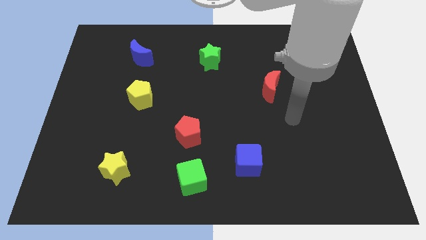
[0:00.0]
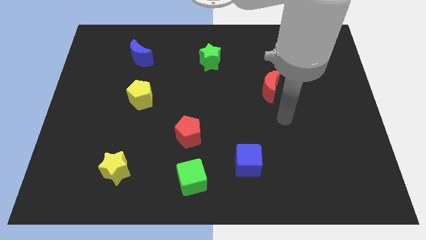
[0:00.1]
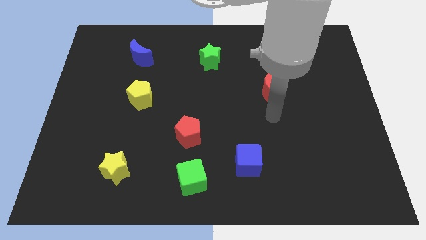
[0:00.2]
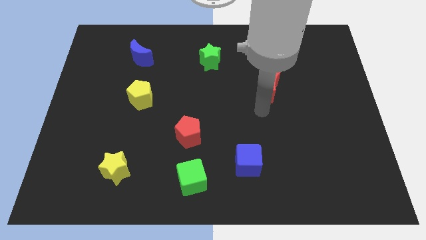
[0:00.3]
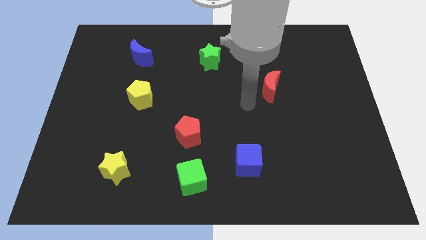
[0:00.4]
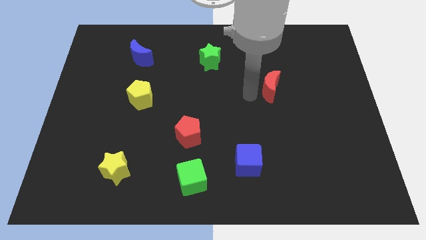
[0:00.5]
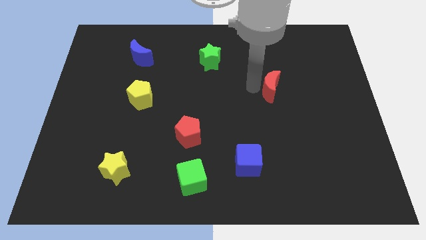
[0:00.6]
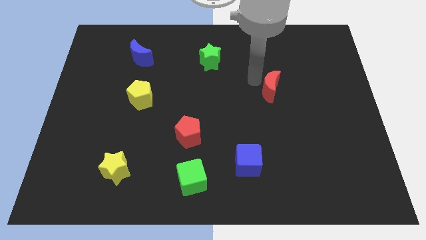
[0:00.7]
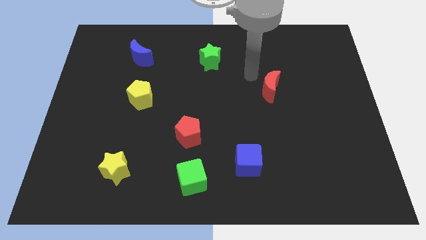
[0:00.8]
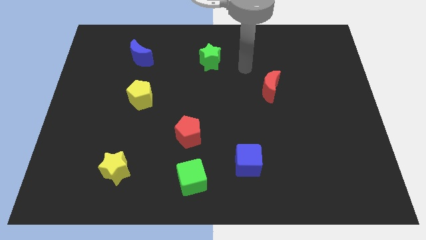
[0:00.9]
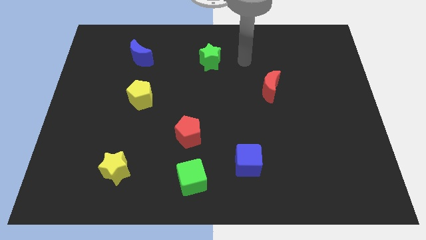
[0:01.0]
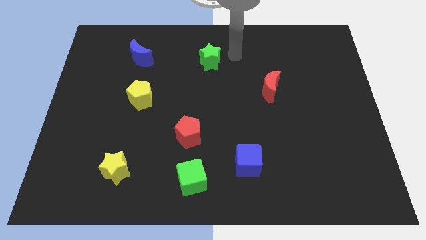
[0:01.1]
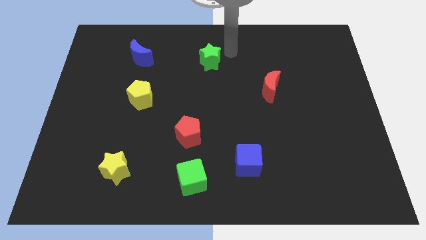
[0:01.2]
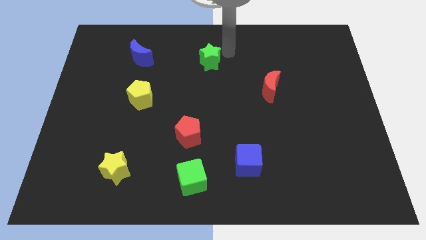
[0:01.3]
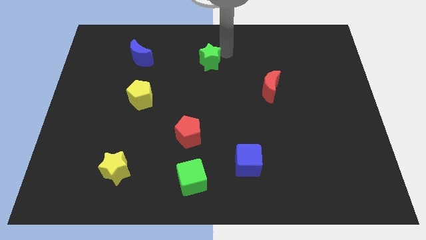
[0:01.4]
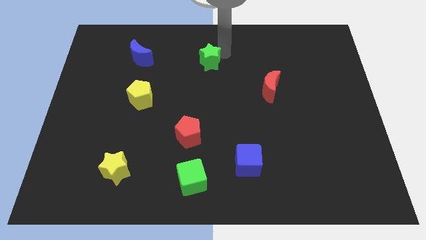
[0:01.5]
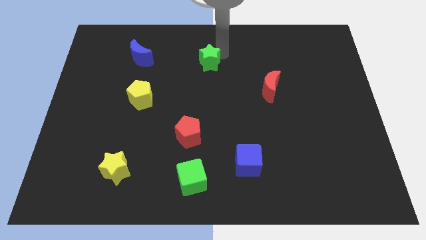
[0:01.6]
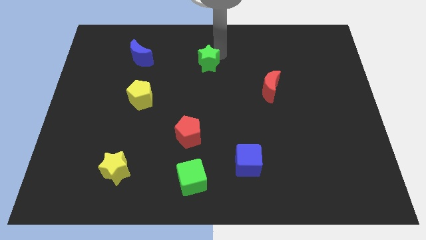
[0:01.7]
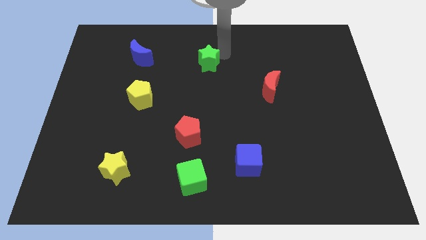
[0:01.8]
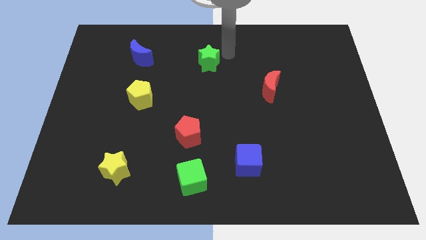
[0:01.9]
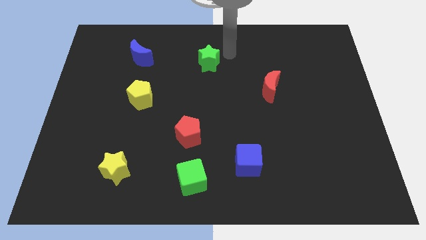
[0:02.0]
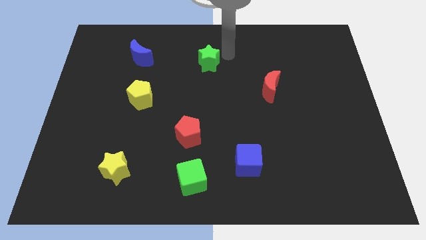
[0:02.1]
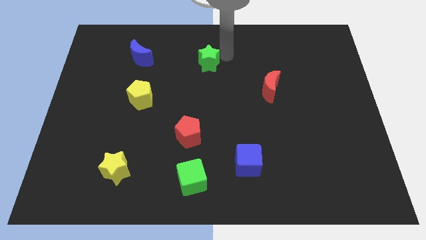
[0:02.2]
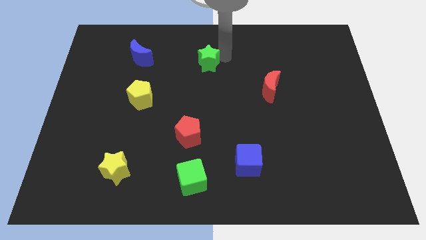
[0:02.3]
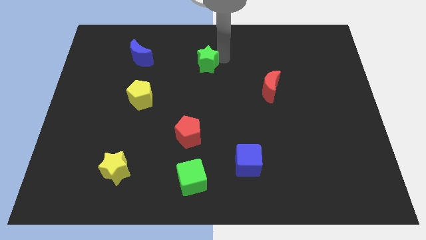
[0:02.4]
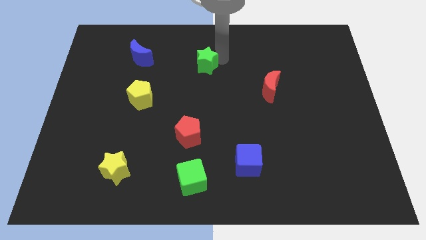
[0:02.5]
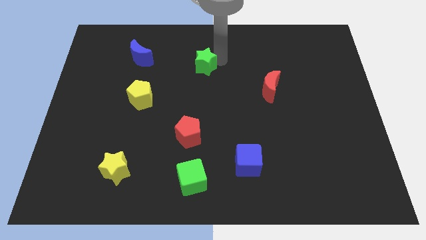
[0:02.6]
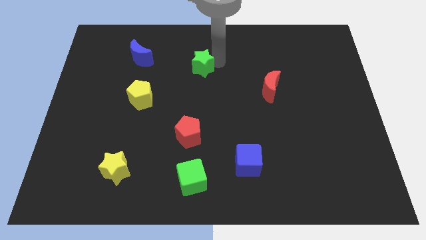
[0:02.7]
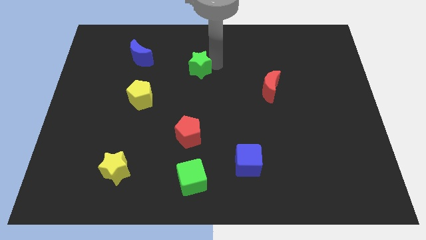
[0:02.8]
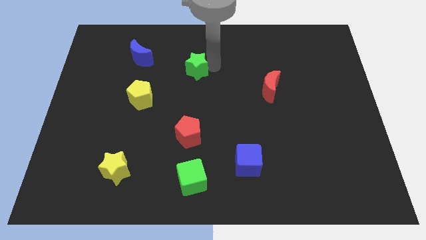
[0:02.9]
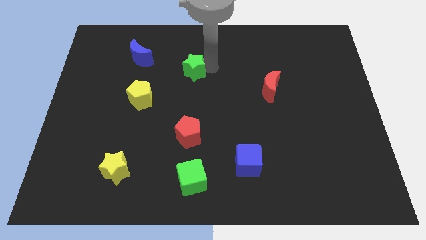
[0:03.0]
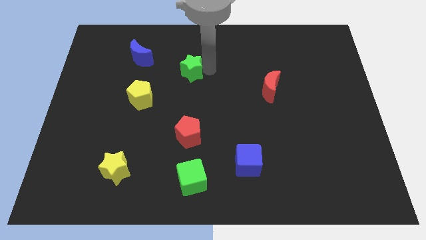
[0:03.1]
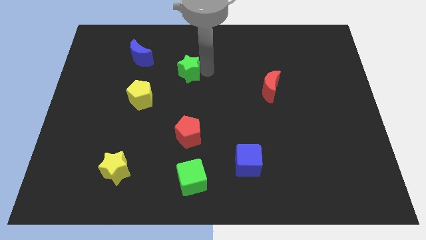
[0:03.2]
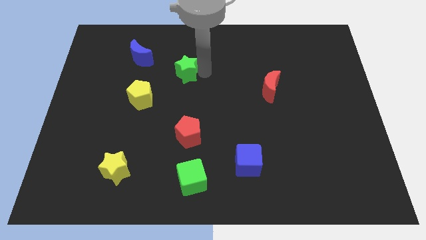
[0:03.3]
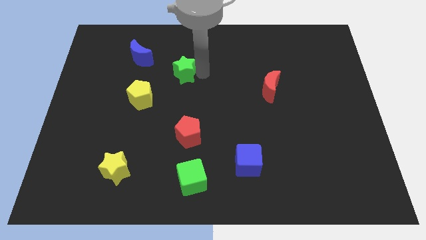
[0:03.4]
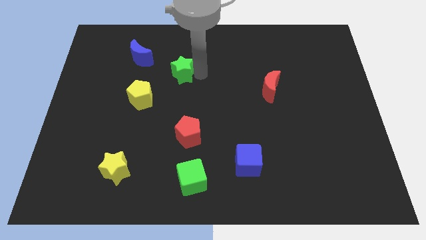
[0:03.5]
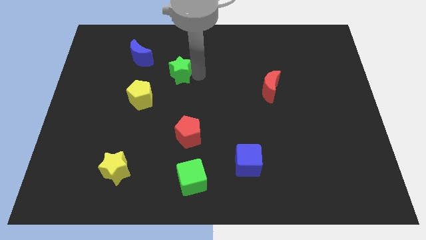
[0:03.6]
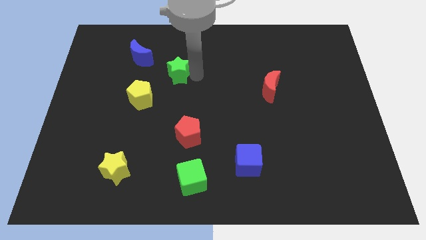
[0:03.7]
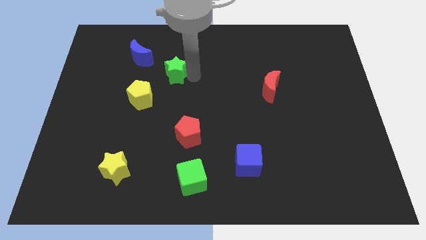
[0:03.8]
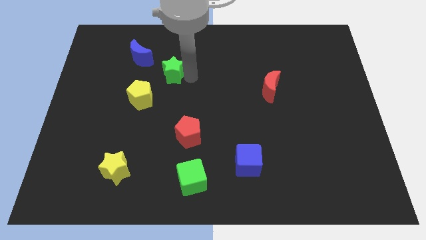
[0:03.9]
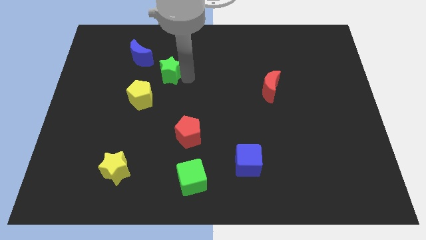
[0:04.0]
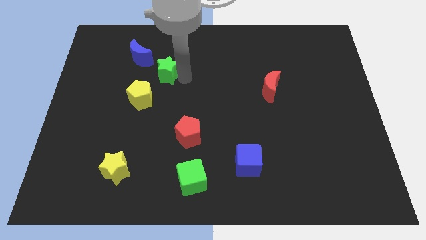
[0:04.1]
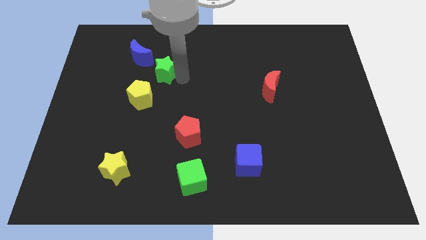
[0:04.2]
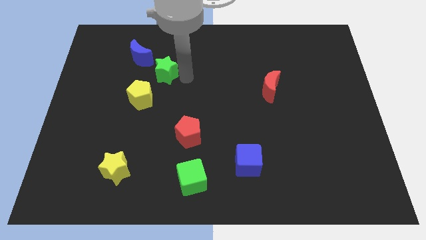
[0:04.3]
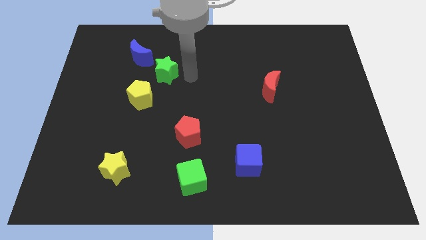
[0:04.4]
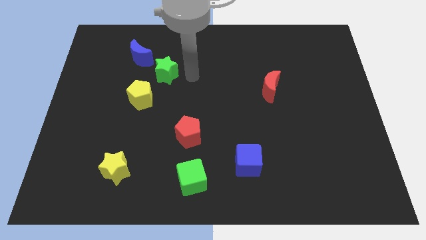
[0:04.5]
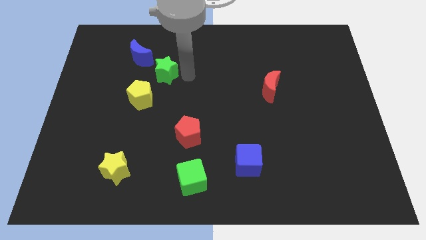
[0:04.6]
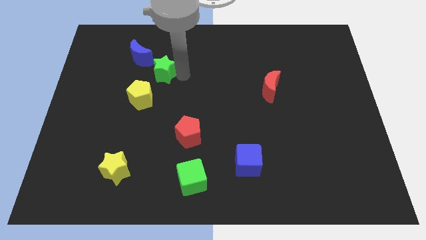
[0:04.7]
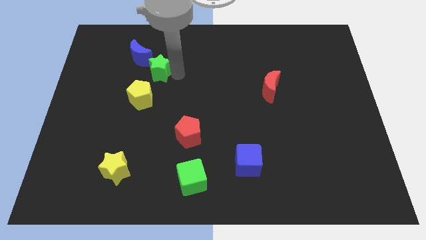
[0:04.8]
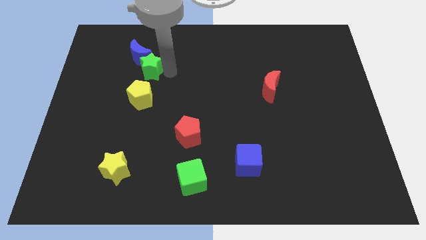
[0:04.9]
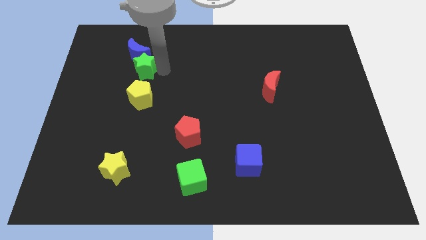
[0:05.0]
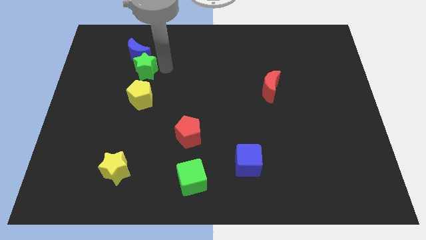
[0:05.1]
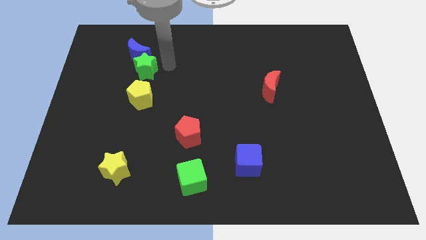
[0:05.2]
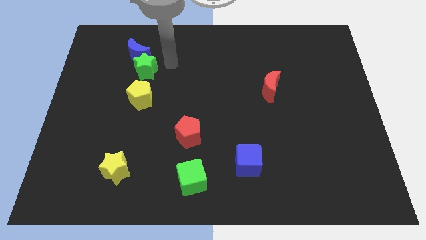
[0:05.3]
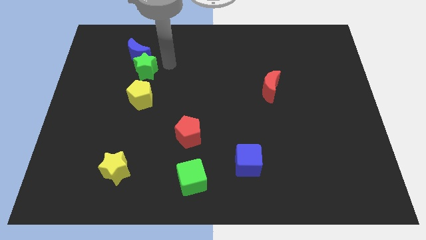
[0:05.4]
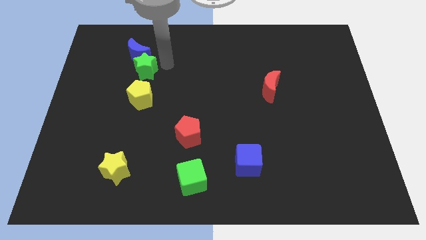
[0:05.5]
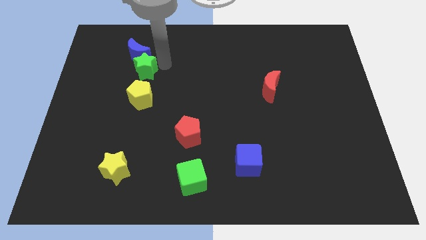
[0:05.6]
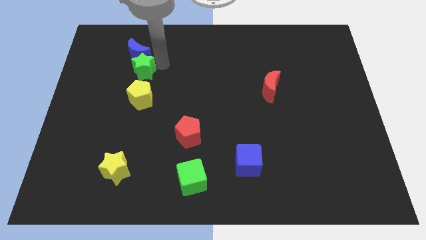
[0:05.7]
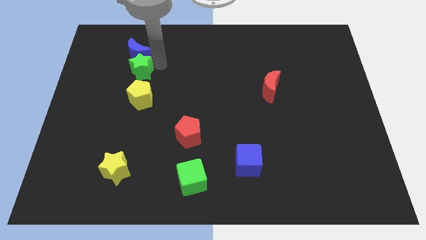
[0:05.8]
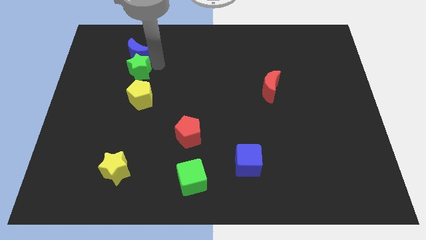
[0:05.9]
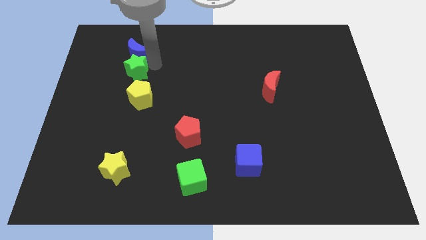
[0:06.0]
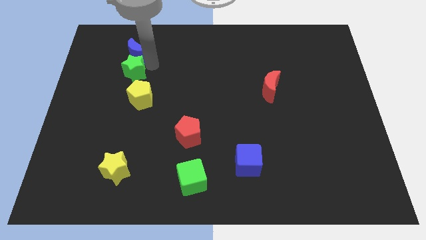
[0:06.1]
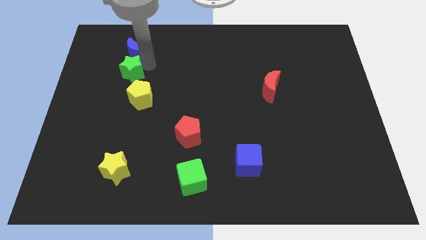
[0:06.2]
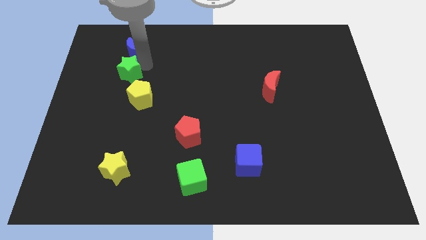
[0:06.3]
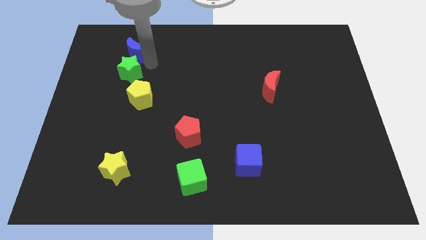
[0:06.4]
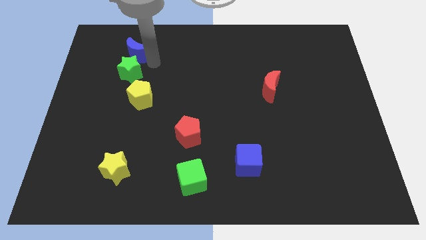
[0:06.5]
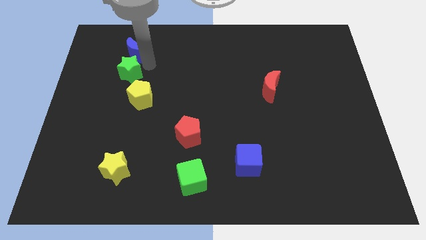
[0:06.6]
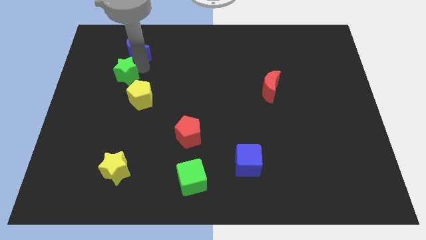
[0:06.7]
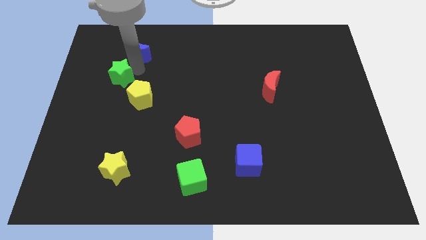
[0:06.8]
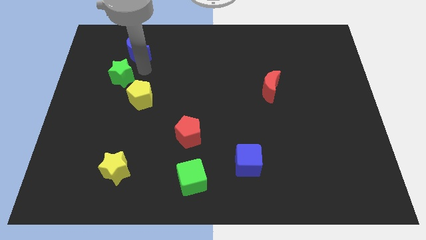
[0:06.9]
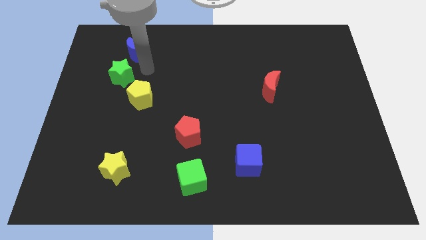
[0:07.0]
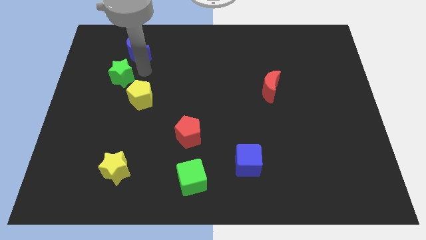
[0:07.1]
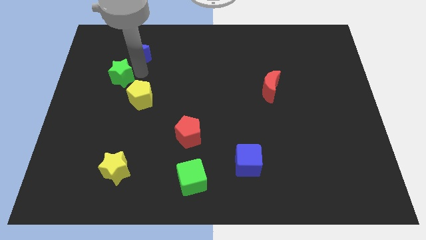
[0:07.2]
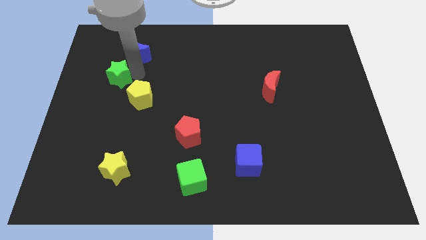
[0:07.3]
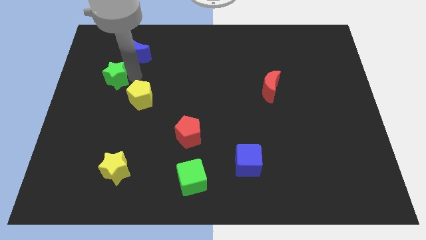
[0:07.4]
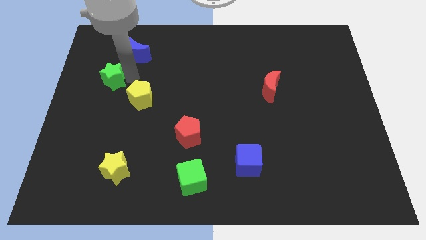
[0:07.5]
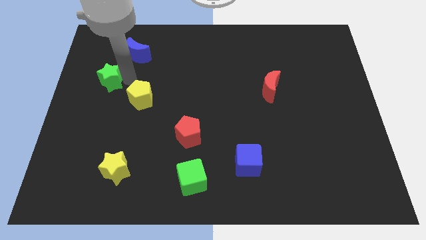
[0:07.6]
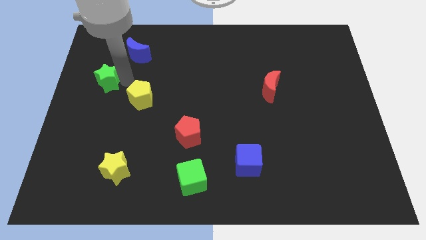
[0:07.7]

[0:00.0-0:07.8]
put the green star to the left side
